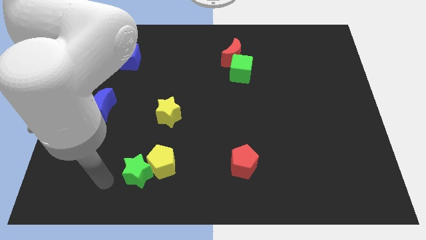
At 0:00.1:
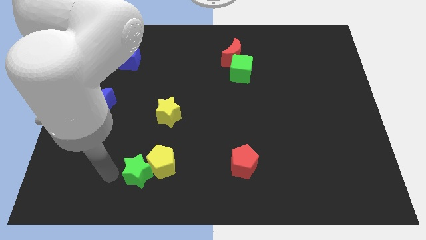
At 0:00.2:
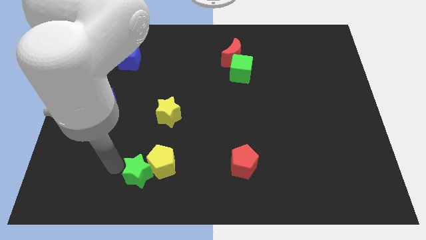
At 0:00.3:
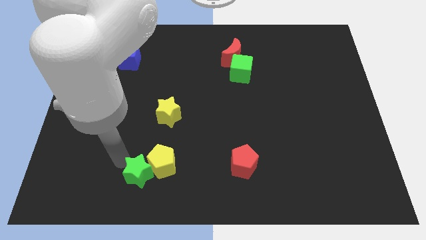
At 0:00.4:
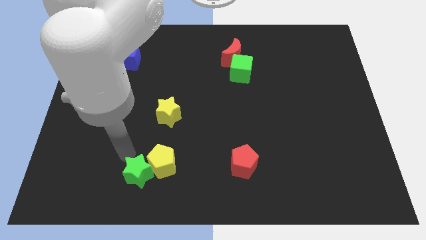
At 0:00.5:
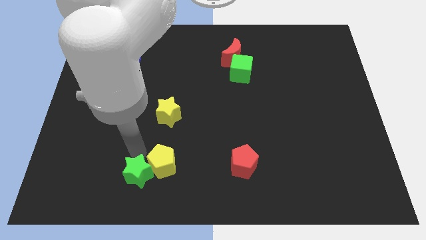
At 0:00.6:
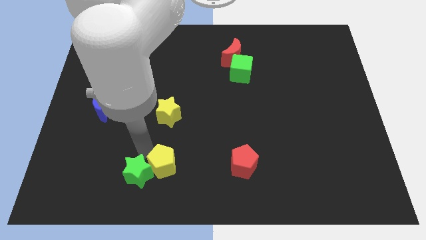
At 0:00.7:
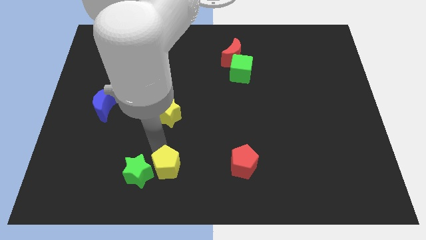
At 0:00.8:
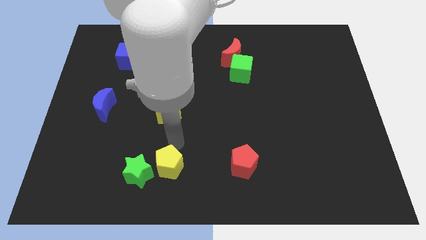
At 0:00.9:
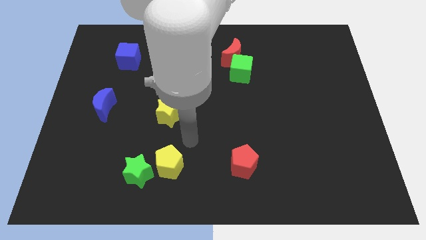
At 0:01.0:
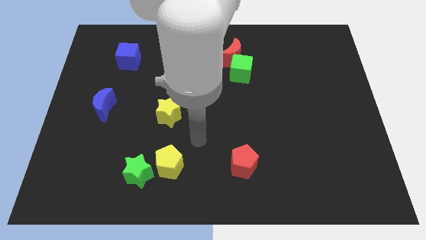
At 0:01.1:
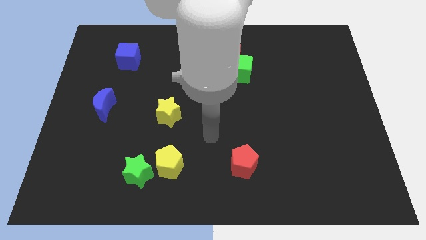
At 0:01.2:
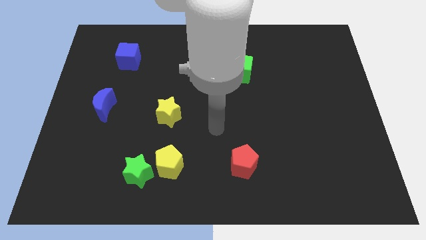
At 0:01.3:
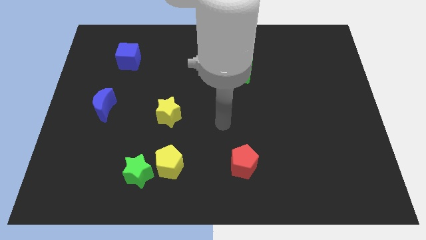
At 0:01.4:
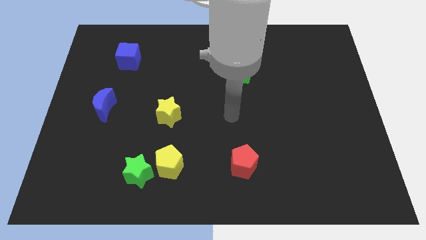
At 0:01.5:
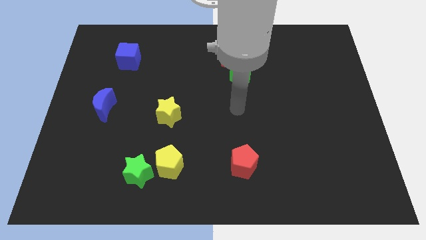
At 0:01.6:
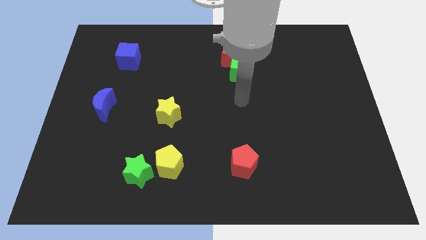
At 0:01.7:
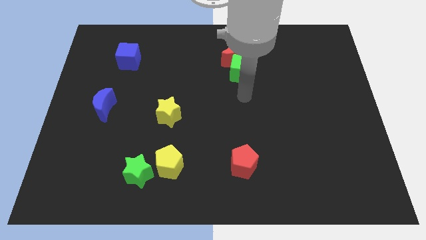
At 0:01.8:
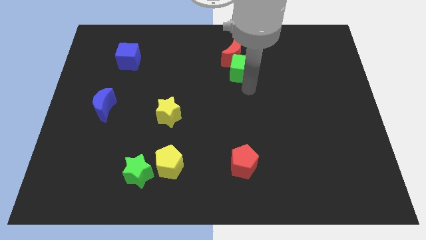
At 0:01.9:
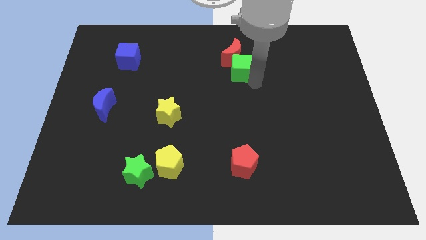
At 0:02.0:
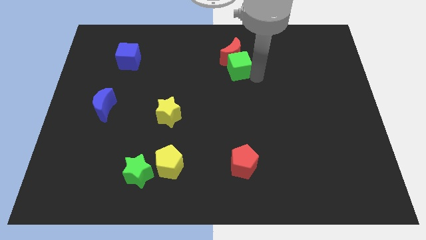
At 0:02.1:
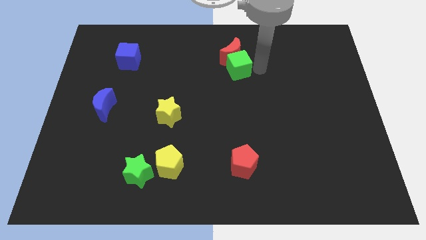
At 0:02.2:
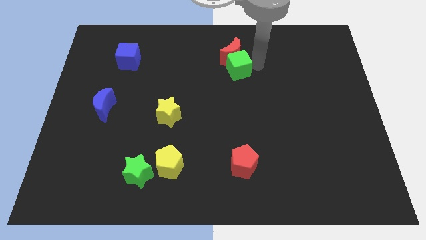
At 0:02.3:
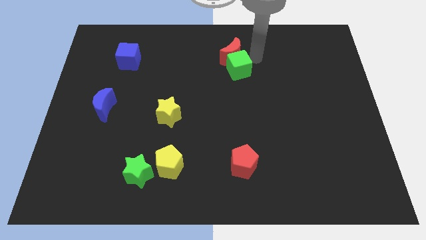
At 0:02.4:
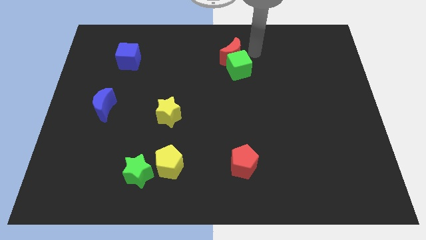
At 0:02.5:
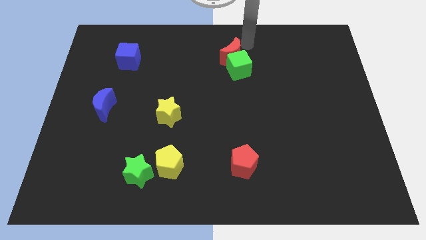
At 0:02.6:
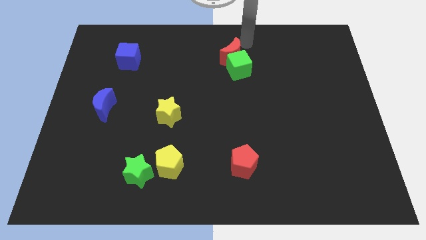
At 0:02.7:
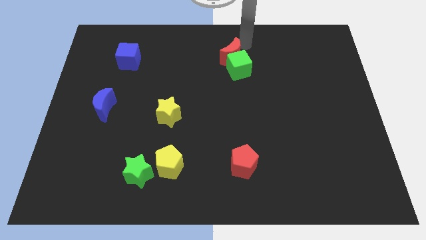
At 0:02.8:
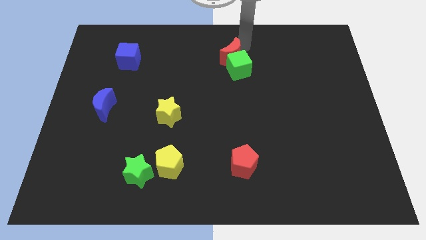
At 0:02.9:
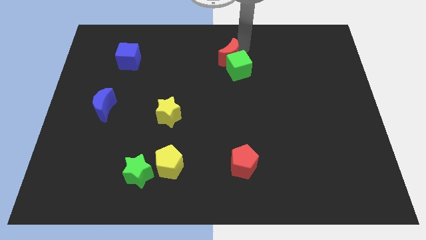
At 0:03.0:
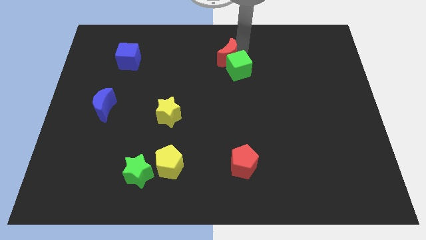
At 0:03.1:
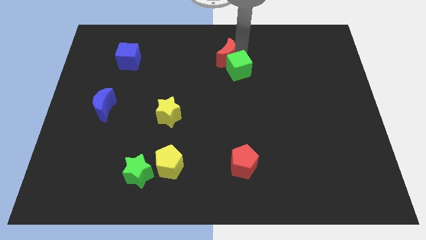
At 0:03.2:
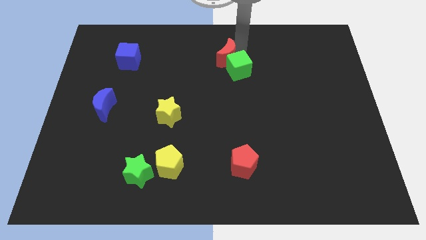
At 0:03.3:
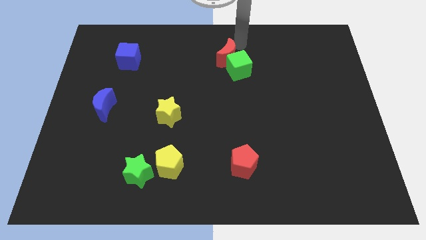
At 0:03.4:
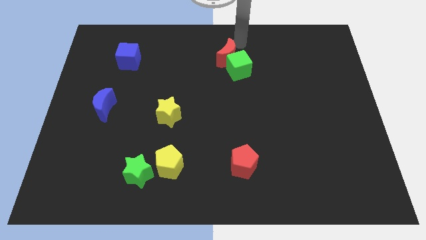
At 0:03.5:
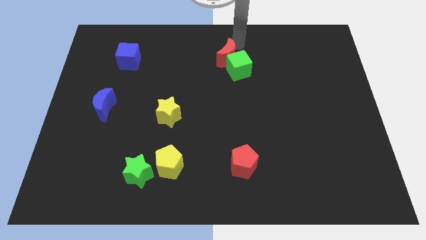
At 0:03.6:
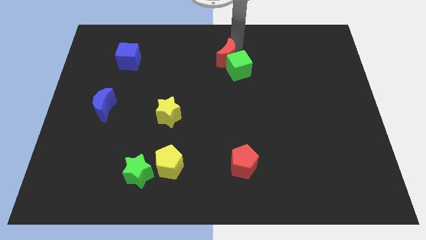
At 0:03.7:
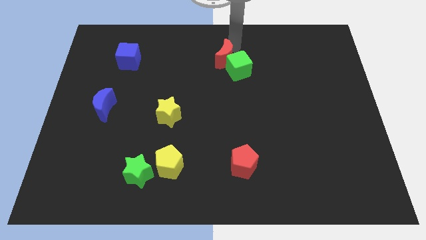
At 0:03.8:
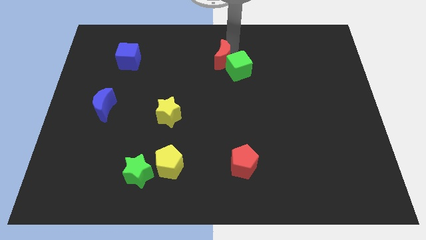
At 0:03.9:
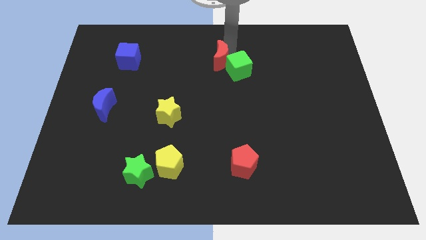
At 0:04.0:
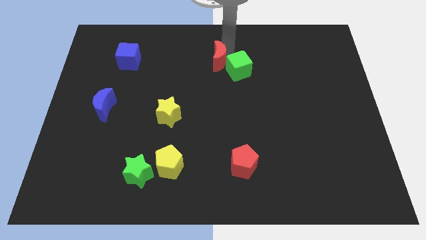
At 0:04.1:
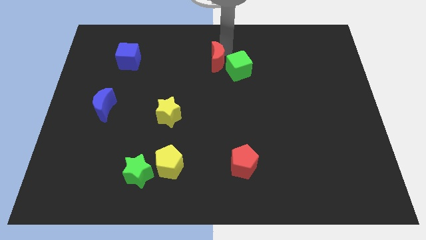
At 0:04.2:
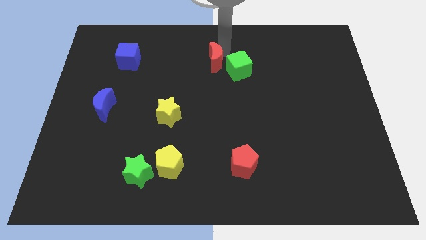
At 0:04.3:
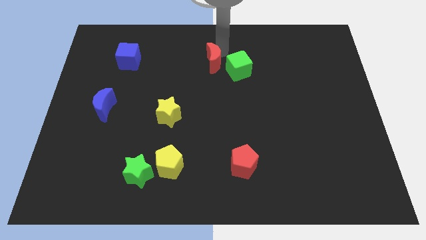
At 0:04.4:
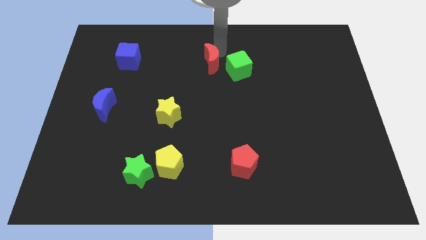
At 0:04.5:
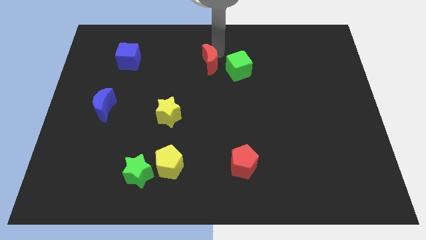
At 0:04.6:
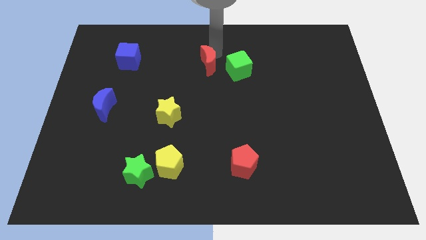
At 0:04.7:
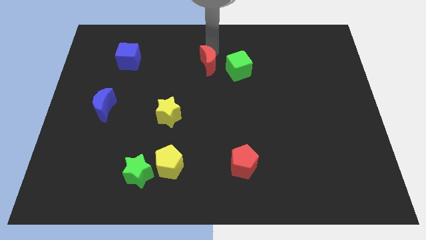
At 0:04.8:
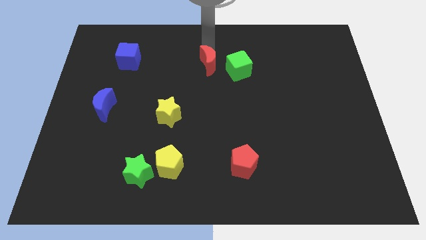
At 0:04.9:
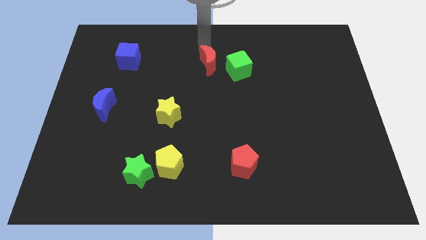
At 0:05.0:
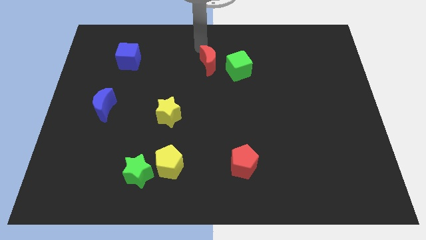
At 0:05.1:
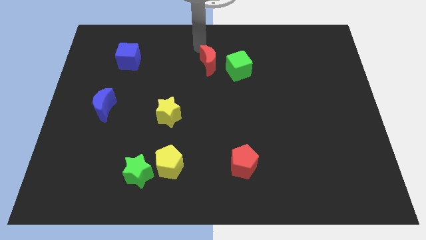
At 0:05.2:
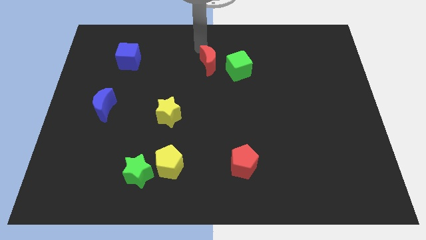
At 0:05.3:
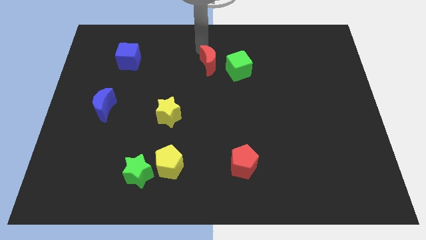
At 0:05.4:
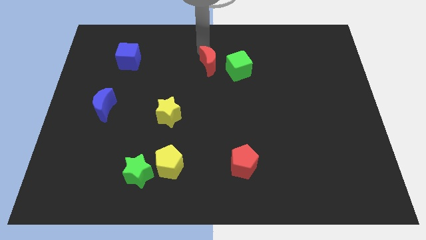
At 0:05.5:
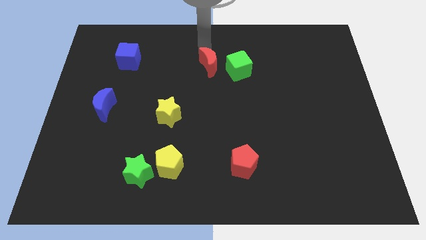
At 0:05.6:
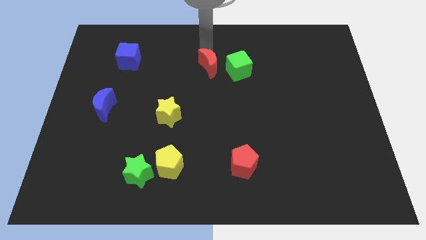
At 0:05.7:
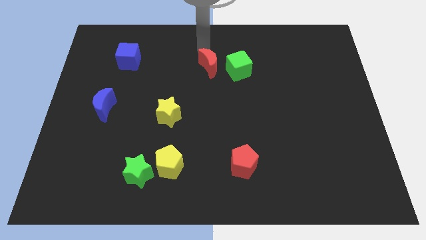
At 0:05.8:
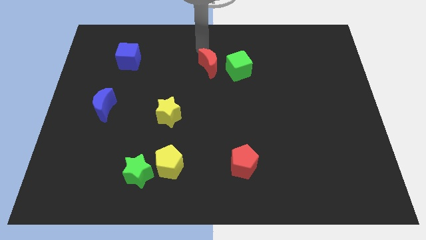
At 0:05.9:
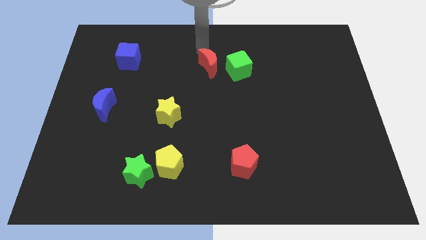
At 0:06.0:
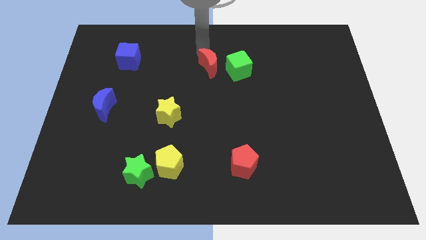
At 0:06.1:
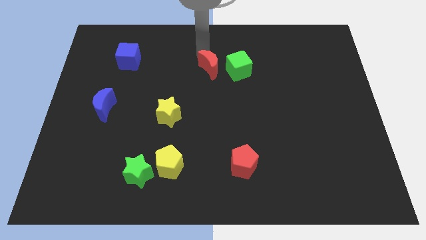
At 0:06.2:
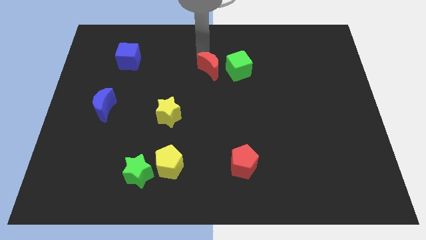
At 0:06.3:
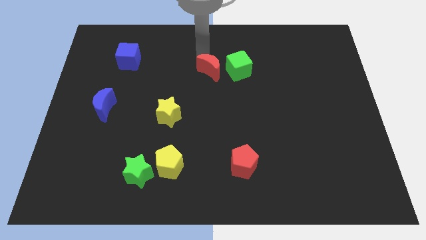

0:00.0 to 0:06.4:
push the red moon diagonally down and to the left of the green cube
